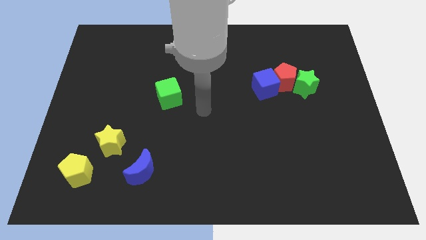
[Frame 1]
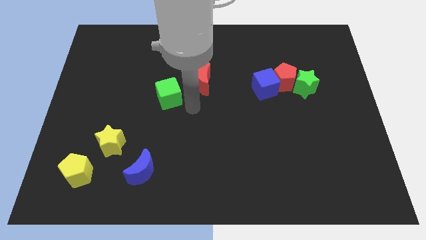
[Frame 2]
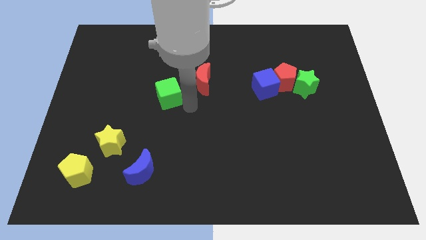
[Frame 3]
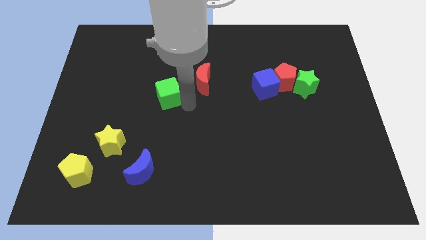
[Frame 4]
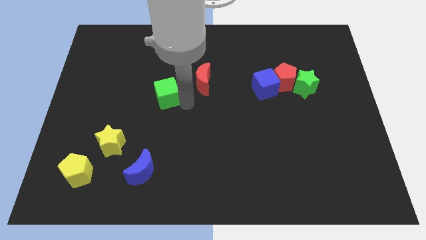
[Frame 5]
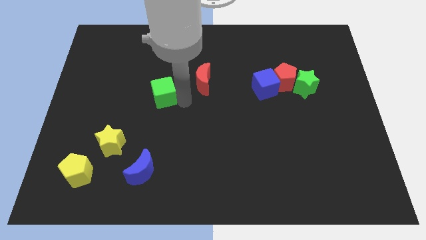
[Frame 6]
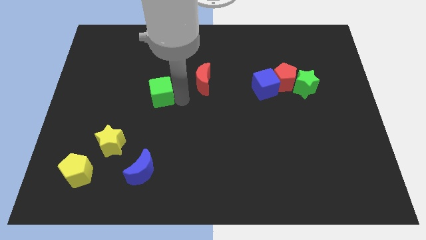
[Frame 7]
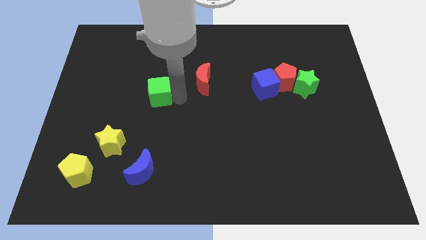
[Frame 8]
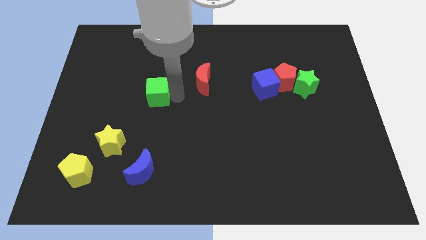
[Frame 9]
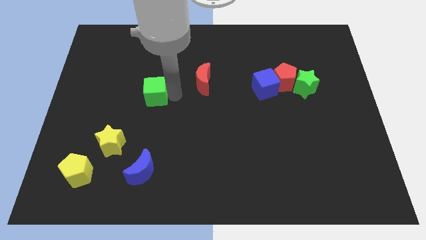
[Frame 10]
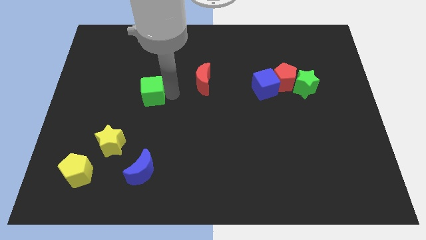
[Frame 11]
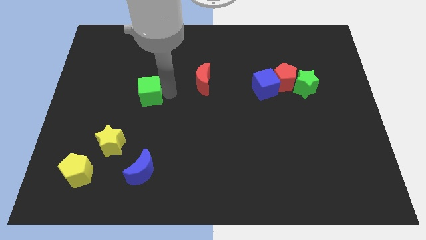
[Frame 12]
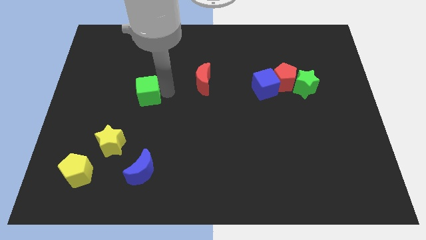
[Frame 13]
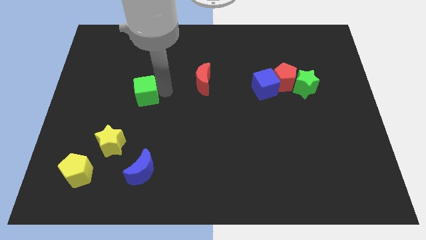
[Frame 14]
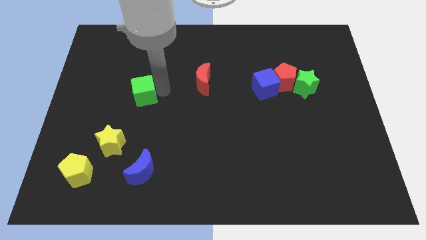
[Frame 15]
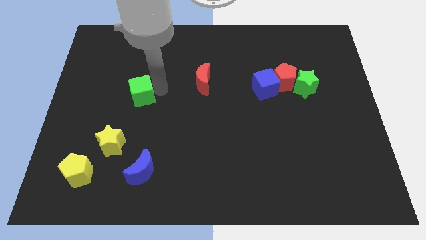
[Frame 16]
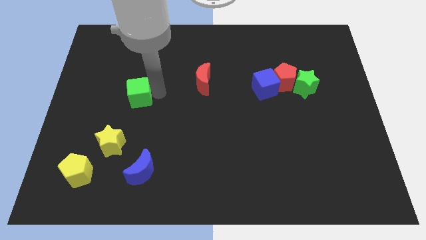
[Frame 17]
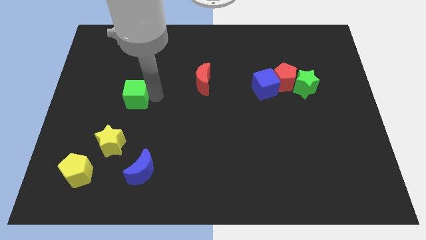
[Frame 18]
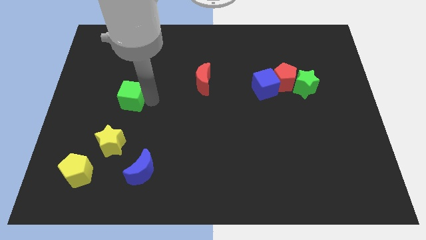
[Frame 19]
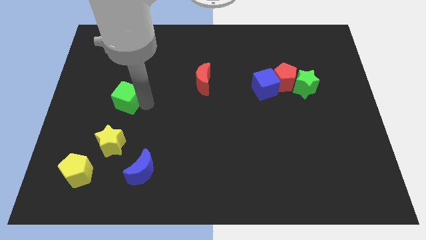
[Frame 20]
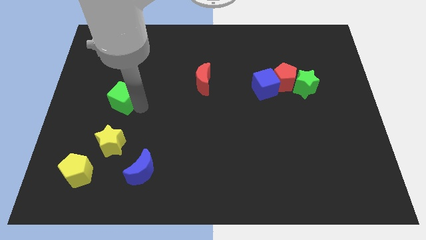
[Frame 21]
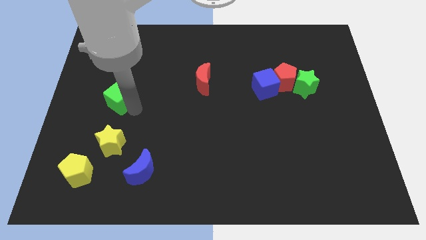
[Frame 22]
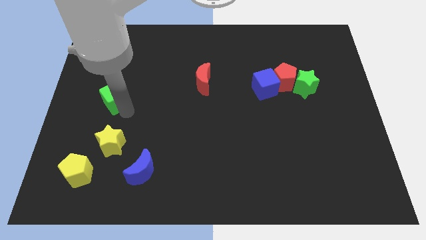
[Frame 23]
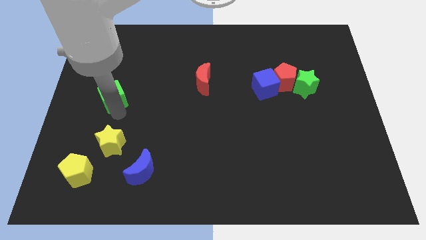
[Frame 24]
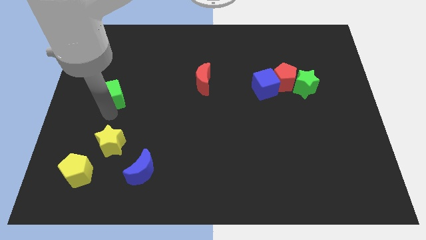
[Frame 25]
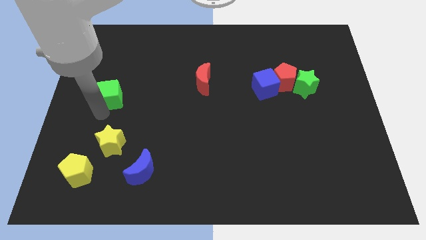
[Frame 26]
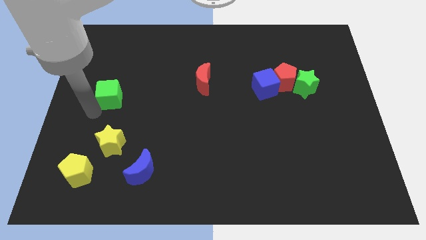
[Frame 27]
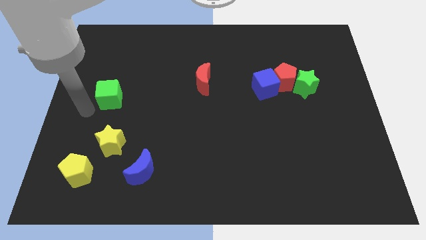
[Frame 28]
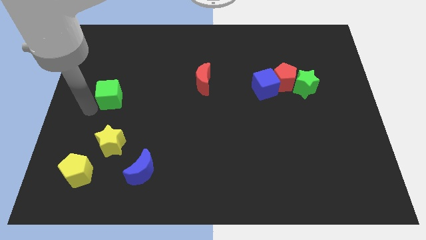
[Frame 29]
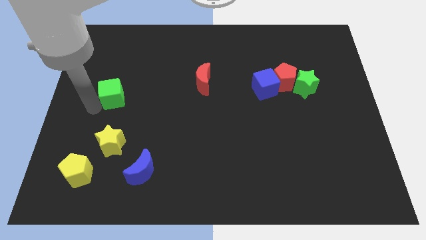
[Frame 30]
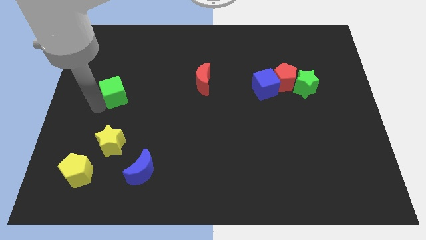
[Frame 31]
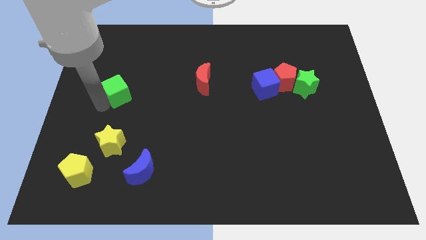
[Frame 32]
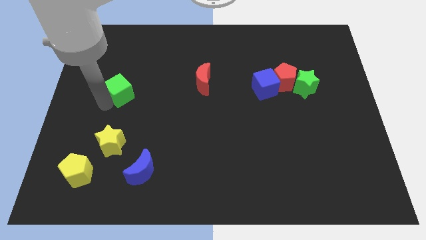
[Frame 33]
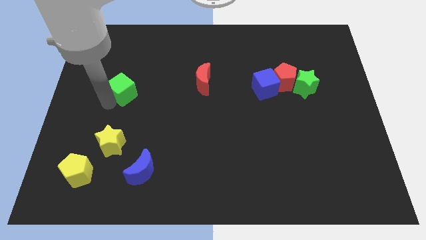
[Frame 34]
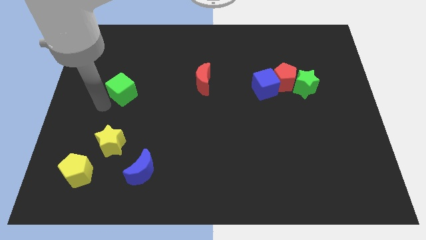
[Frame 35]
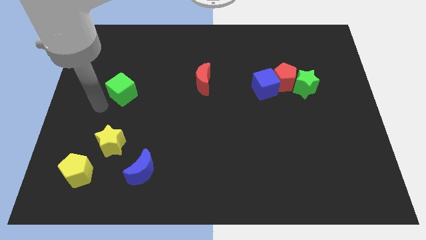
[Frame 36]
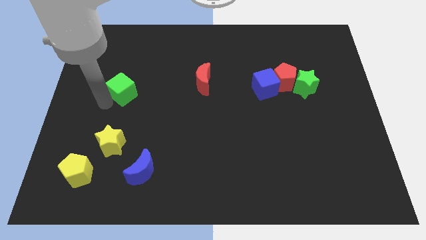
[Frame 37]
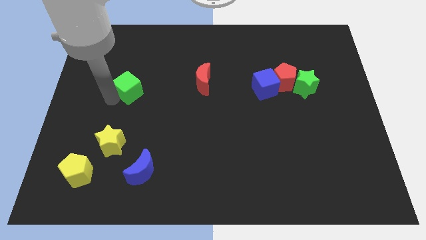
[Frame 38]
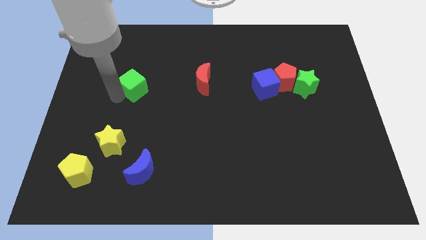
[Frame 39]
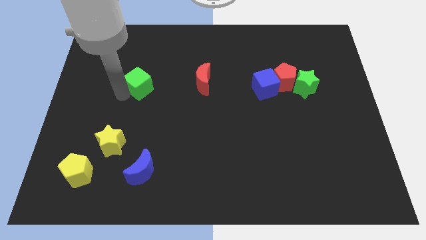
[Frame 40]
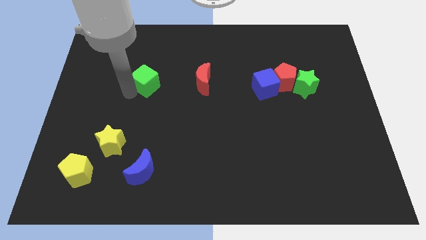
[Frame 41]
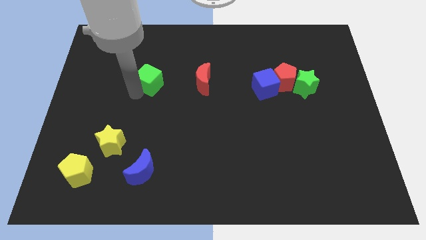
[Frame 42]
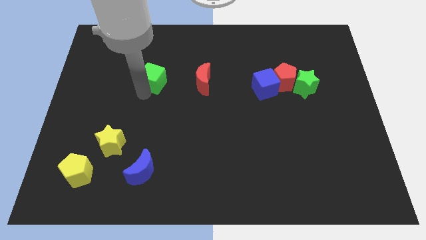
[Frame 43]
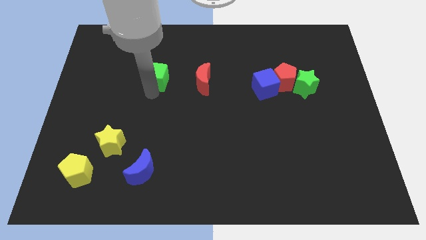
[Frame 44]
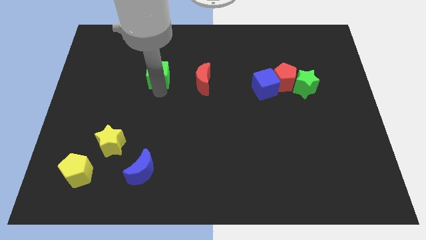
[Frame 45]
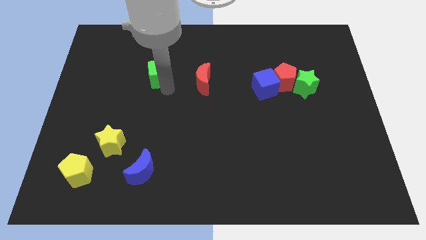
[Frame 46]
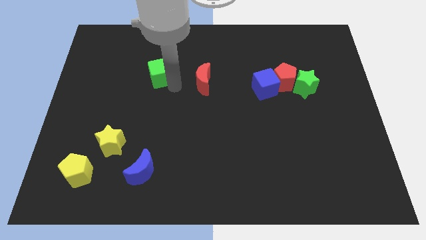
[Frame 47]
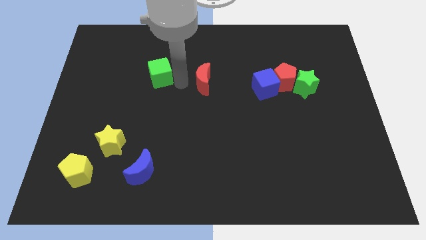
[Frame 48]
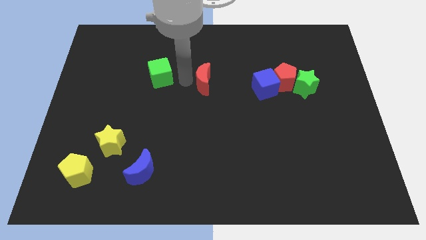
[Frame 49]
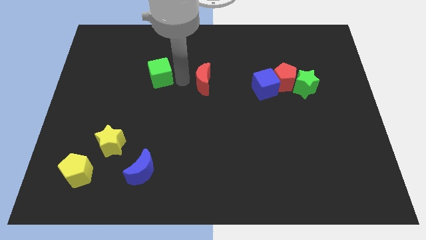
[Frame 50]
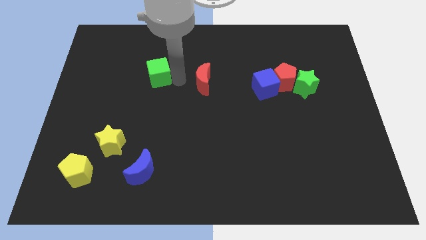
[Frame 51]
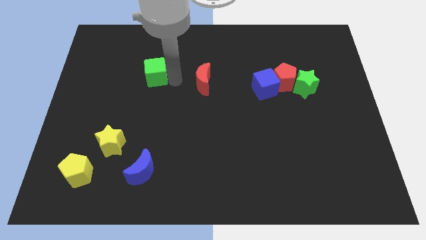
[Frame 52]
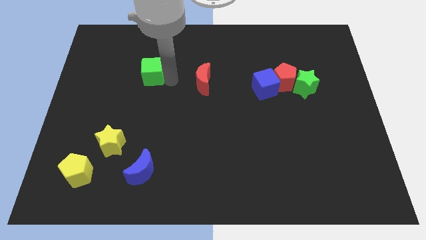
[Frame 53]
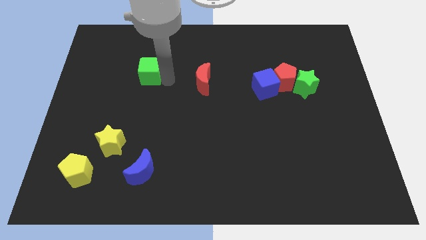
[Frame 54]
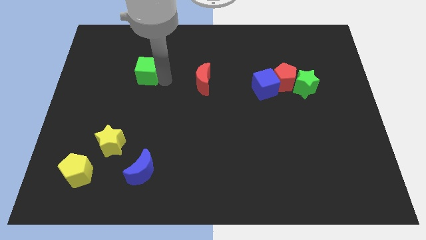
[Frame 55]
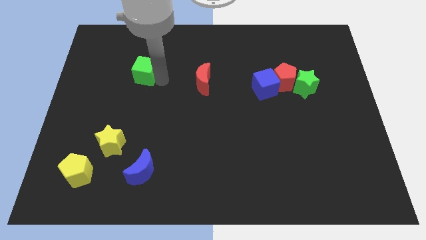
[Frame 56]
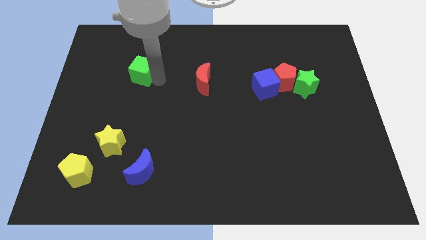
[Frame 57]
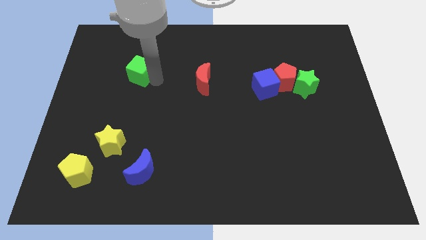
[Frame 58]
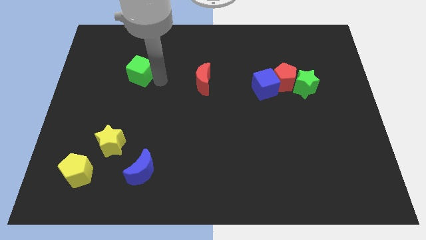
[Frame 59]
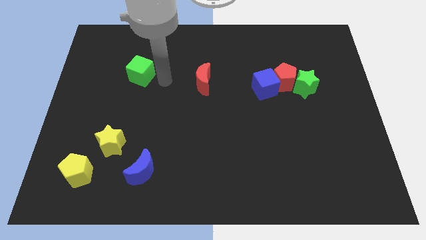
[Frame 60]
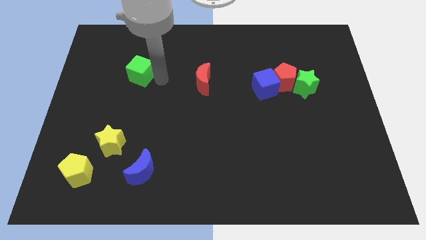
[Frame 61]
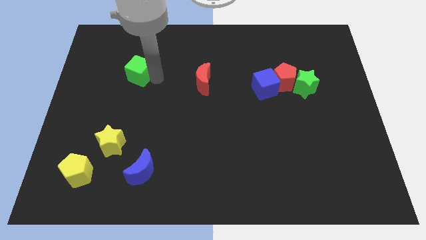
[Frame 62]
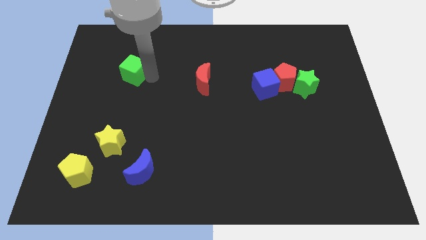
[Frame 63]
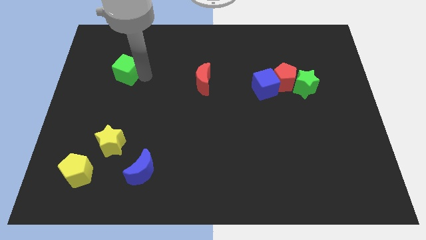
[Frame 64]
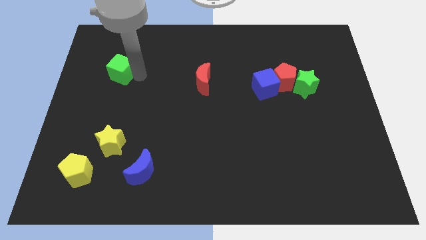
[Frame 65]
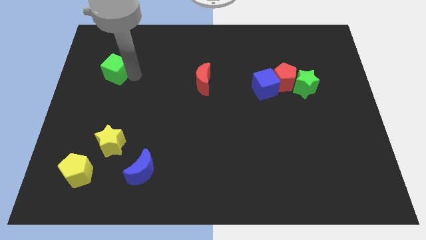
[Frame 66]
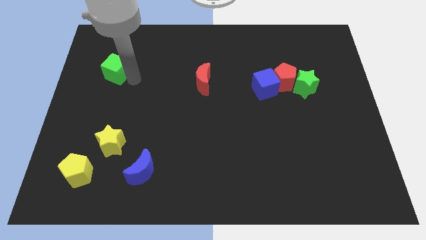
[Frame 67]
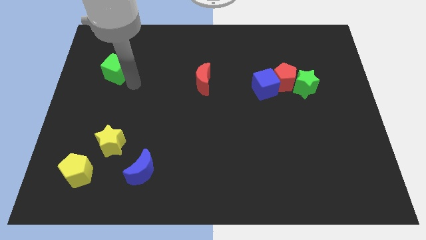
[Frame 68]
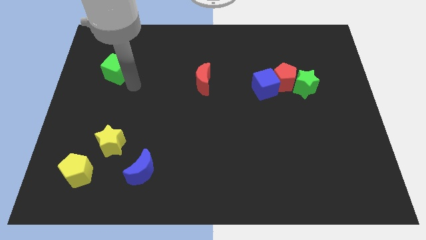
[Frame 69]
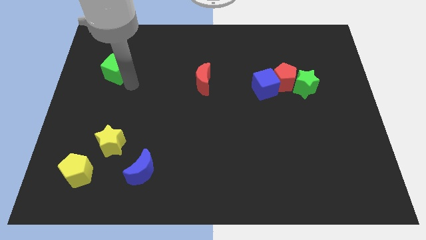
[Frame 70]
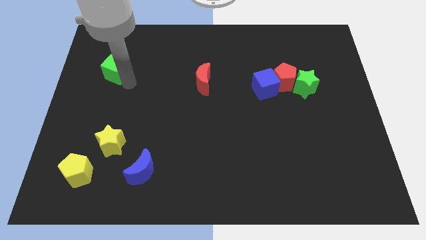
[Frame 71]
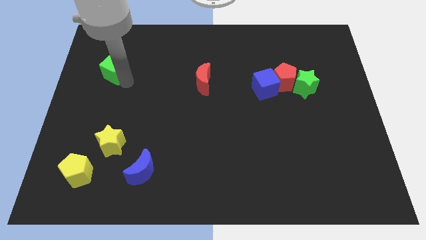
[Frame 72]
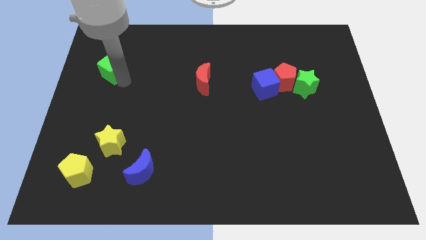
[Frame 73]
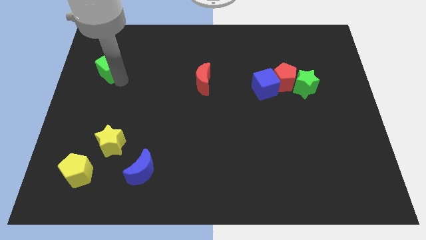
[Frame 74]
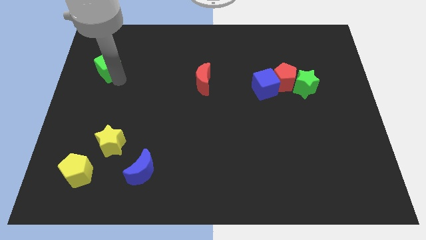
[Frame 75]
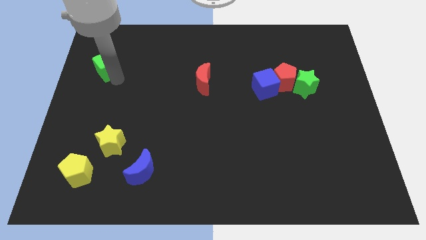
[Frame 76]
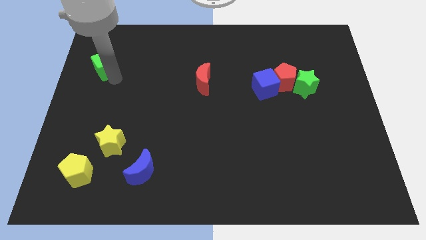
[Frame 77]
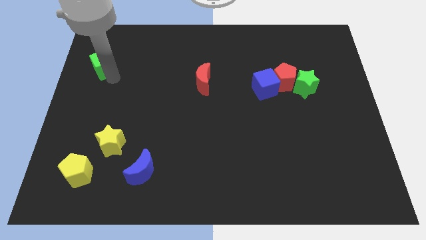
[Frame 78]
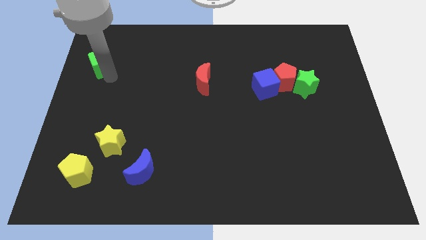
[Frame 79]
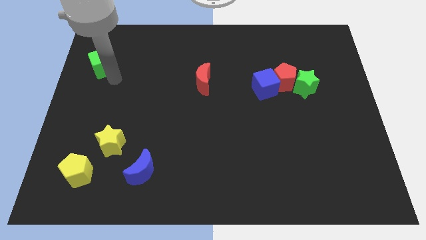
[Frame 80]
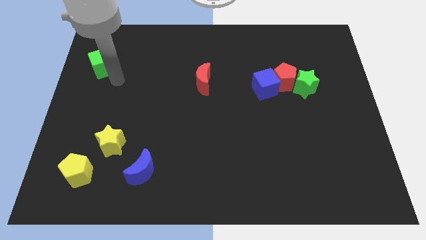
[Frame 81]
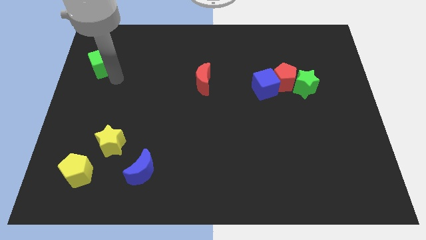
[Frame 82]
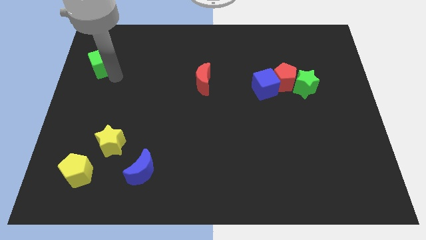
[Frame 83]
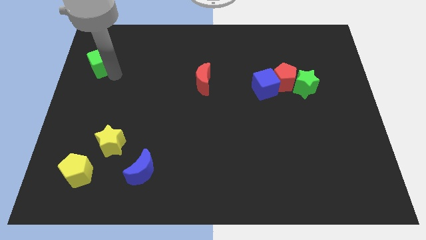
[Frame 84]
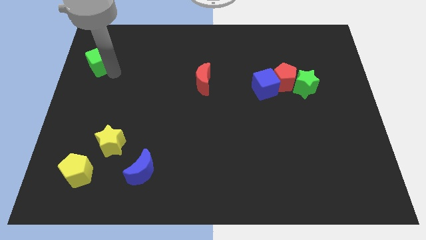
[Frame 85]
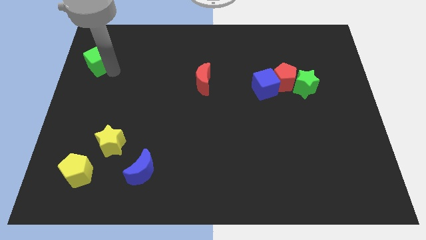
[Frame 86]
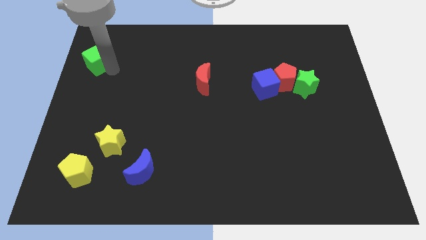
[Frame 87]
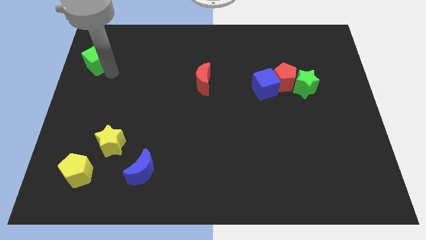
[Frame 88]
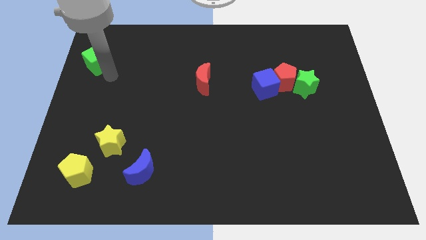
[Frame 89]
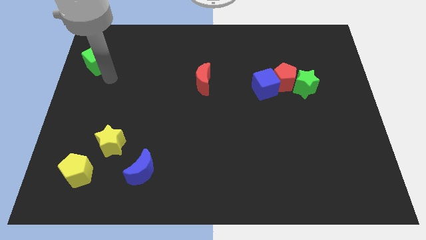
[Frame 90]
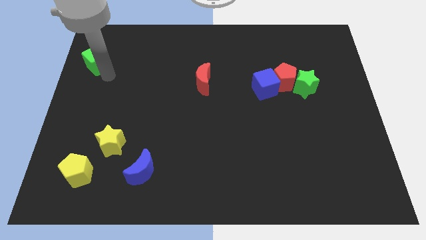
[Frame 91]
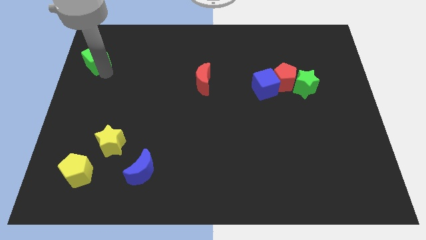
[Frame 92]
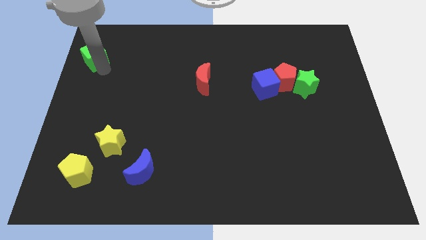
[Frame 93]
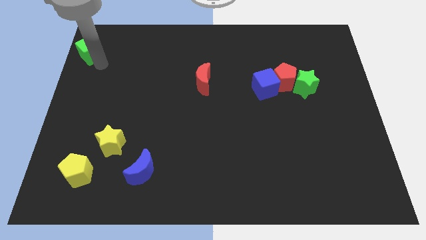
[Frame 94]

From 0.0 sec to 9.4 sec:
move the green cube to the top left
